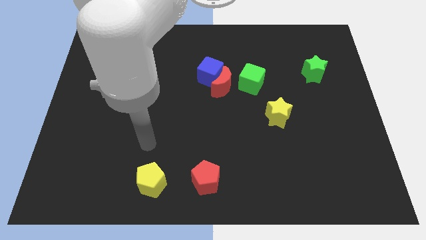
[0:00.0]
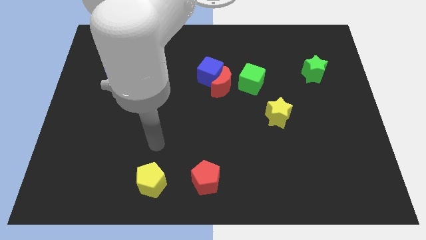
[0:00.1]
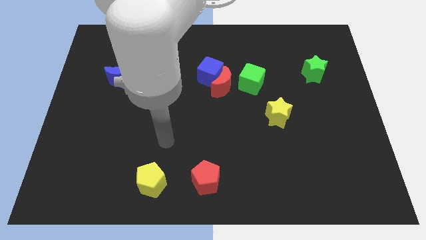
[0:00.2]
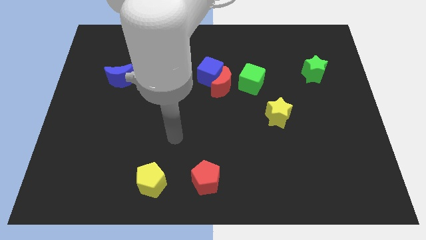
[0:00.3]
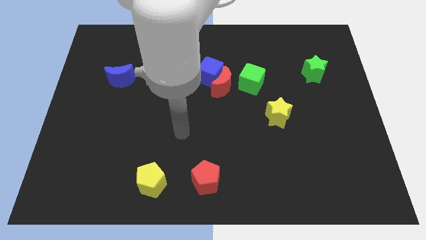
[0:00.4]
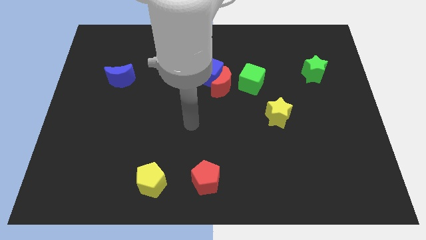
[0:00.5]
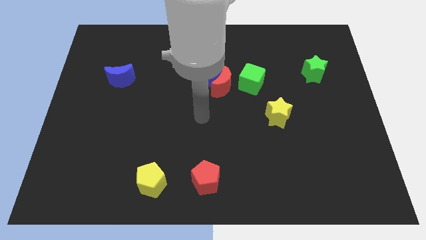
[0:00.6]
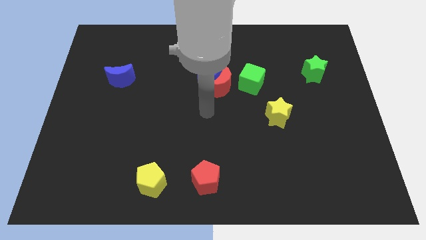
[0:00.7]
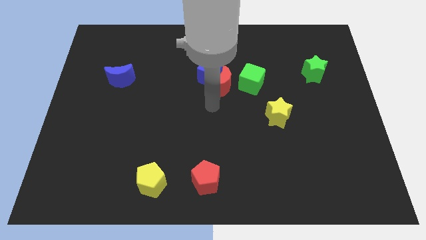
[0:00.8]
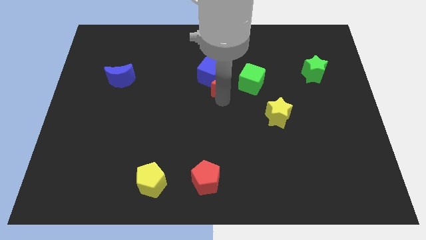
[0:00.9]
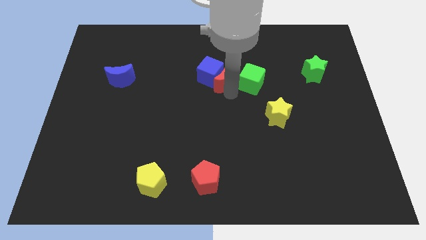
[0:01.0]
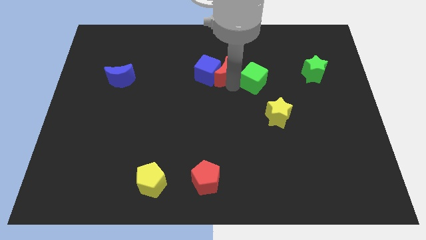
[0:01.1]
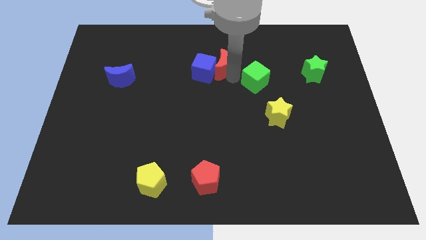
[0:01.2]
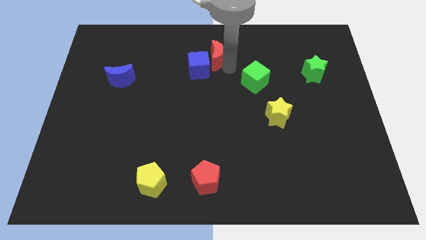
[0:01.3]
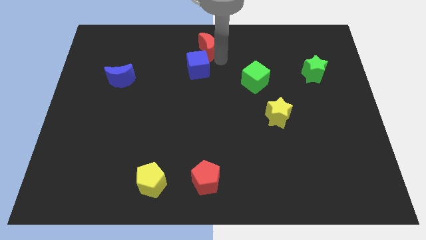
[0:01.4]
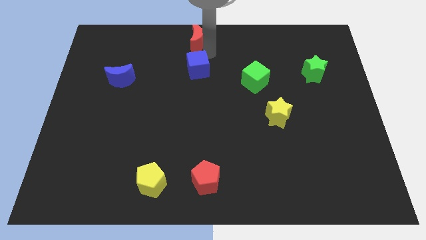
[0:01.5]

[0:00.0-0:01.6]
move the blue cube away from the red moon

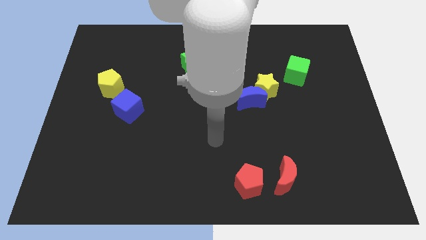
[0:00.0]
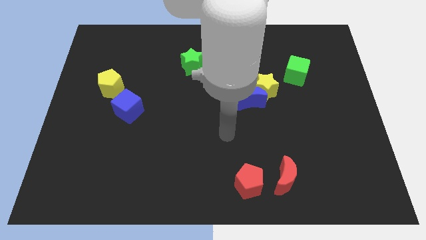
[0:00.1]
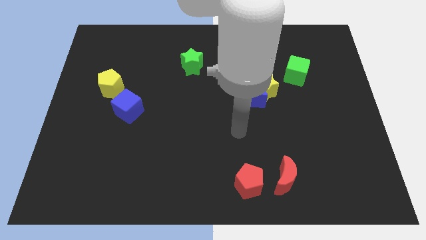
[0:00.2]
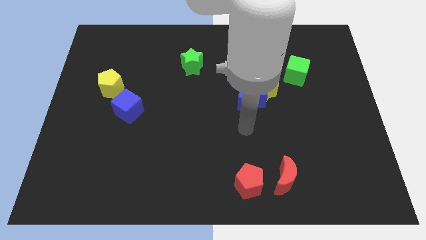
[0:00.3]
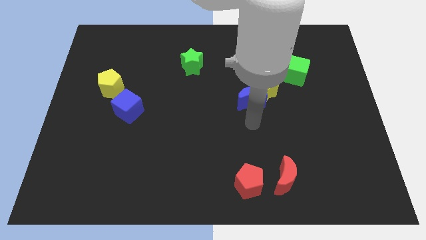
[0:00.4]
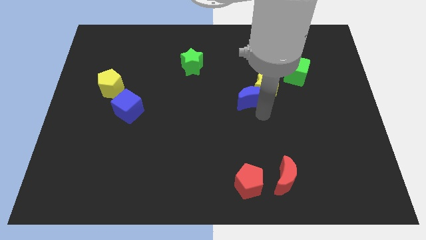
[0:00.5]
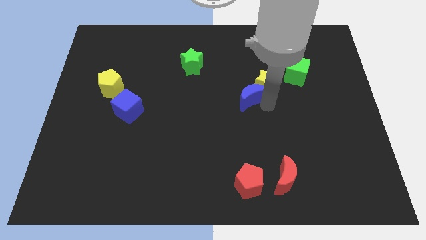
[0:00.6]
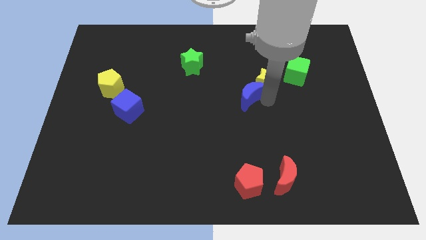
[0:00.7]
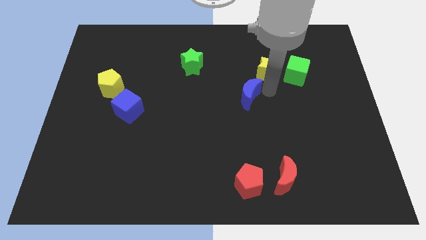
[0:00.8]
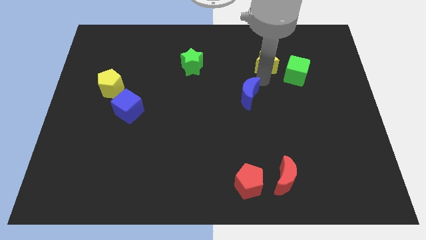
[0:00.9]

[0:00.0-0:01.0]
separate the blue moon from the yellow star

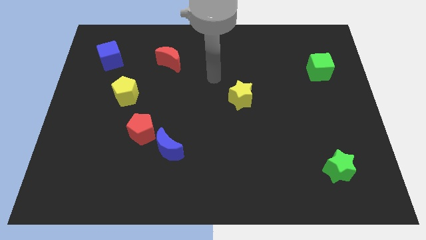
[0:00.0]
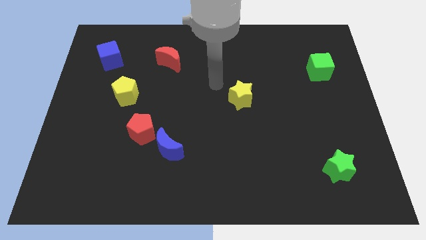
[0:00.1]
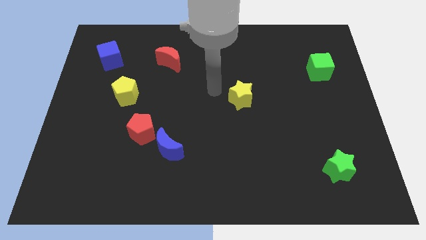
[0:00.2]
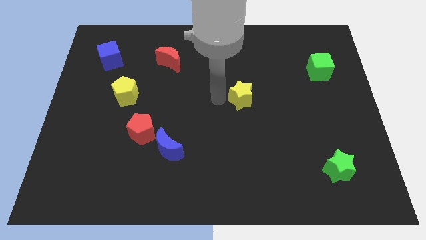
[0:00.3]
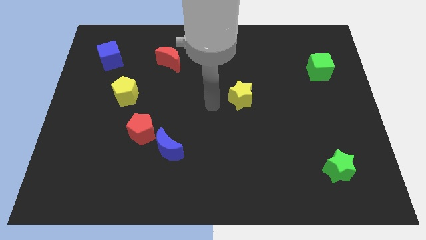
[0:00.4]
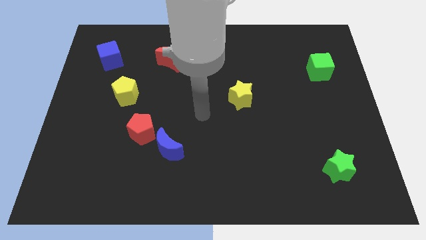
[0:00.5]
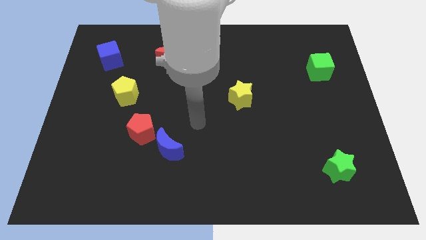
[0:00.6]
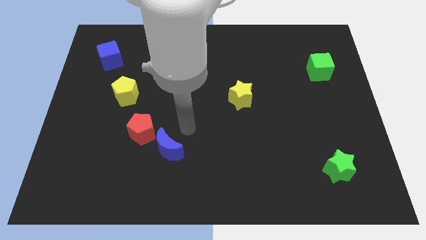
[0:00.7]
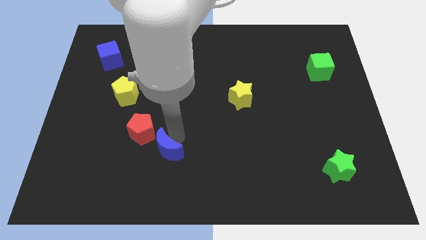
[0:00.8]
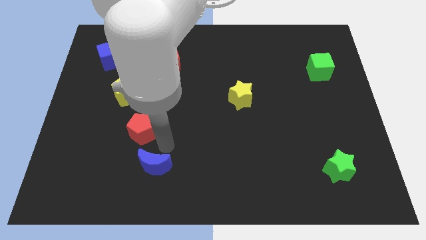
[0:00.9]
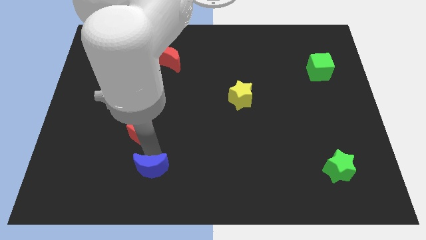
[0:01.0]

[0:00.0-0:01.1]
separate the red pentagon from the blue moon

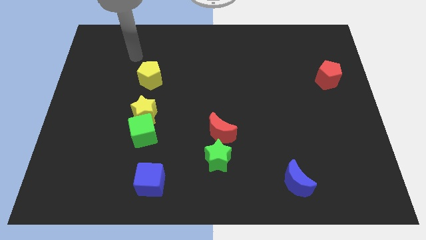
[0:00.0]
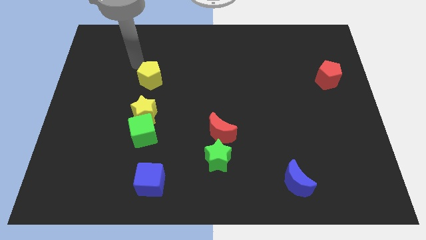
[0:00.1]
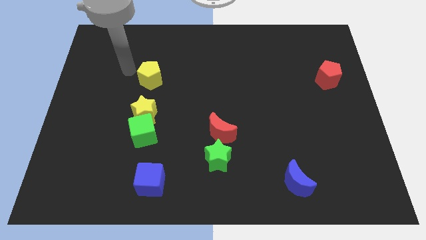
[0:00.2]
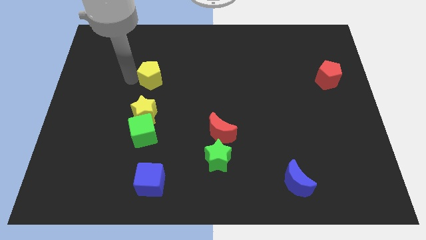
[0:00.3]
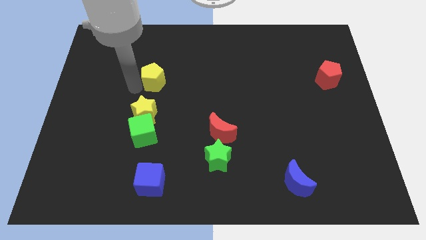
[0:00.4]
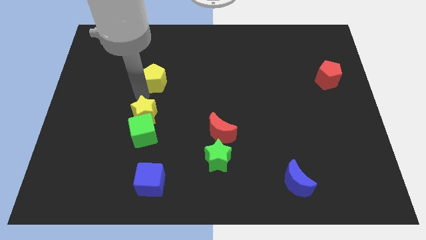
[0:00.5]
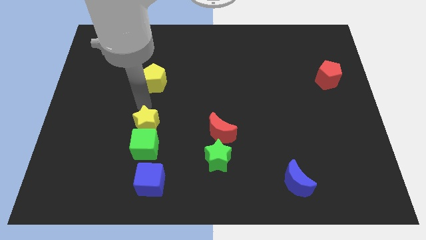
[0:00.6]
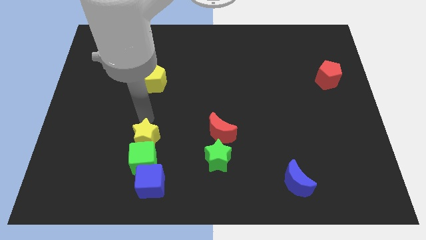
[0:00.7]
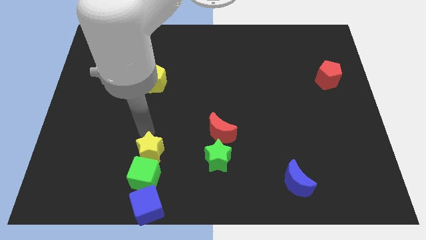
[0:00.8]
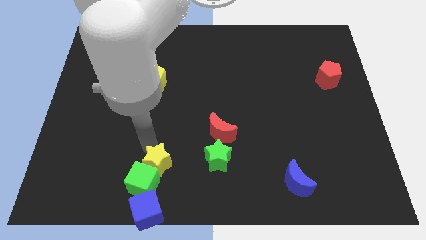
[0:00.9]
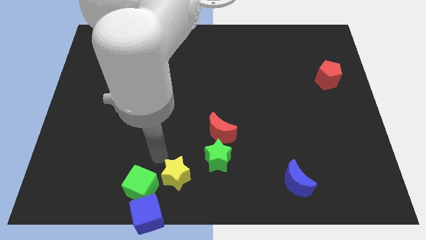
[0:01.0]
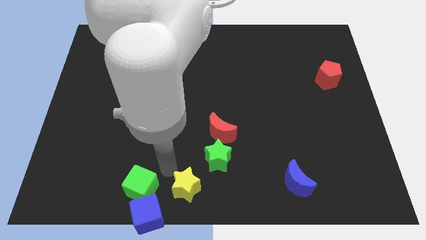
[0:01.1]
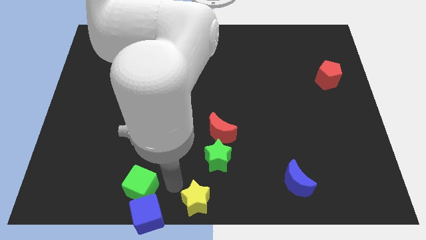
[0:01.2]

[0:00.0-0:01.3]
separate the green cube from the yellow star

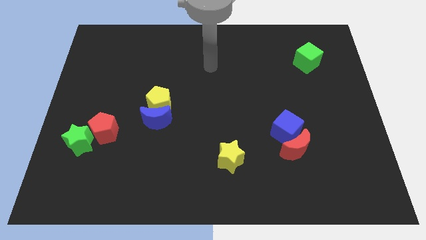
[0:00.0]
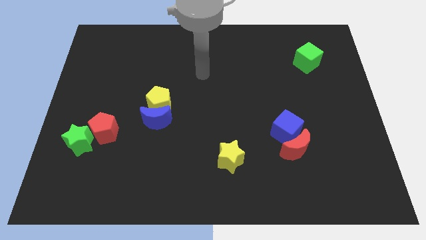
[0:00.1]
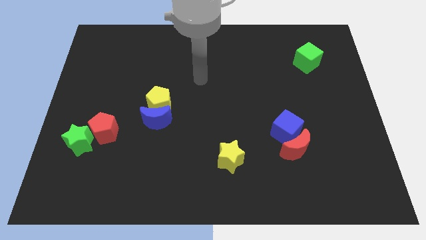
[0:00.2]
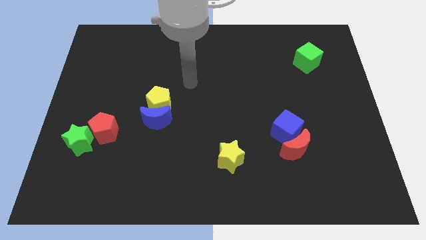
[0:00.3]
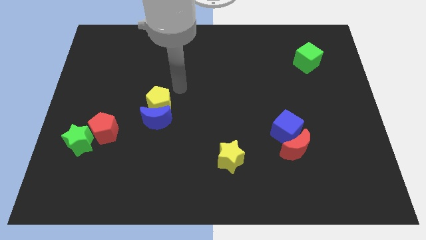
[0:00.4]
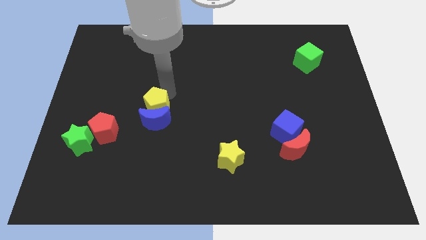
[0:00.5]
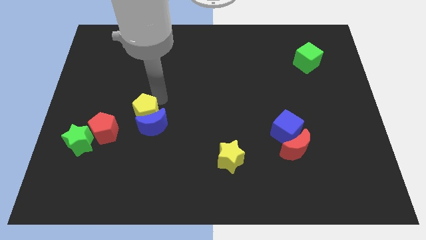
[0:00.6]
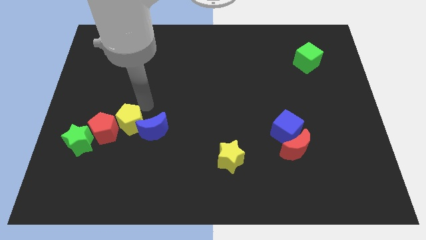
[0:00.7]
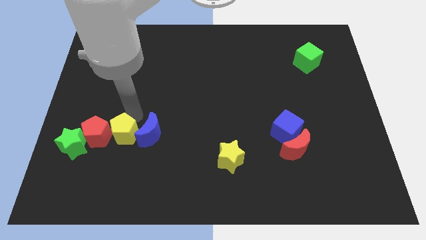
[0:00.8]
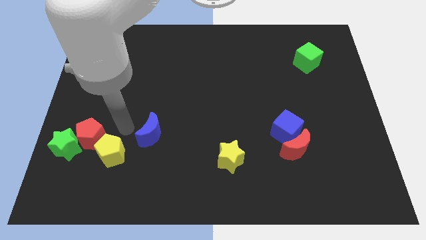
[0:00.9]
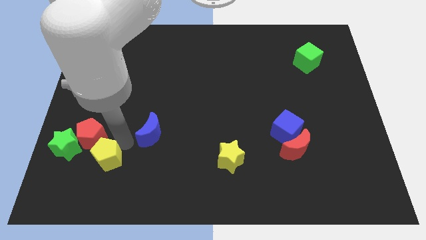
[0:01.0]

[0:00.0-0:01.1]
move the blue moon away from the yellow pentagon

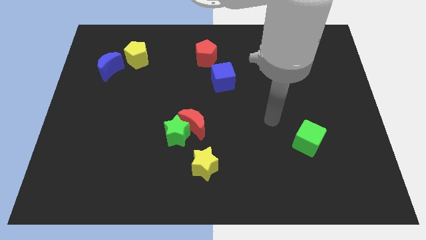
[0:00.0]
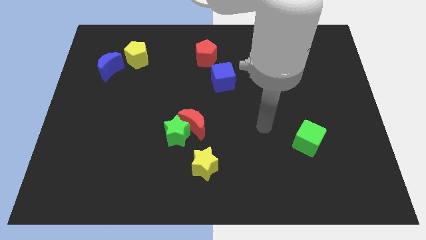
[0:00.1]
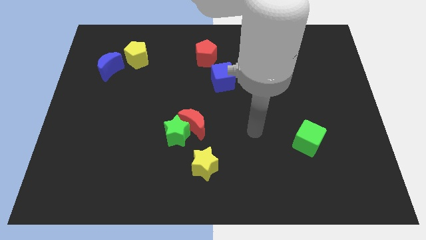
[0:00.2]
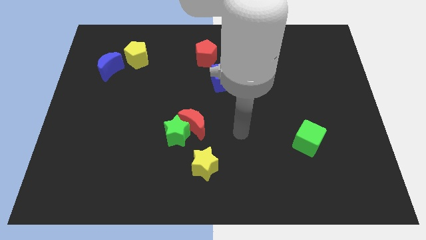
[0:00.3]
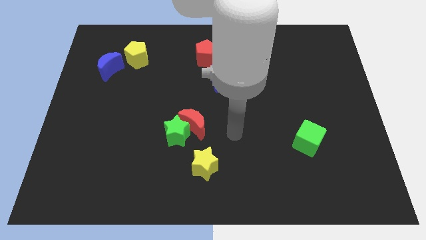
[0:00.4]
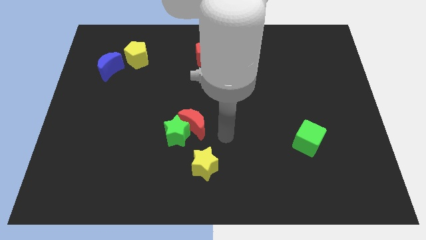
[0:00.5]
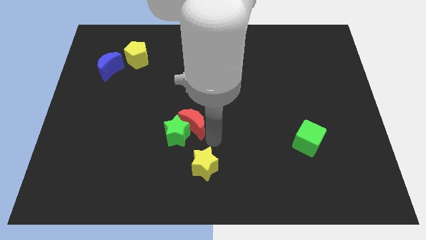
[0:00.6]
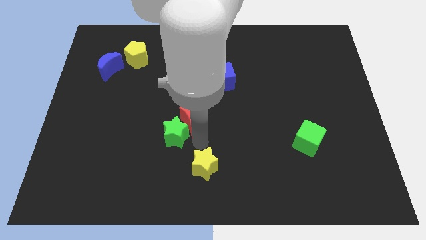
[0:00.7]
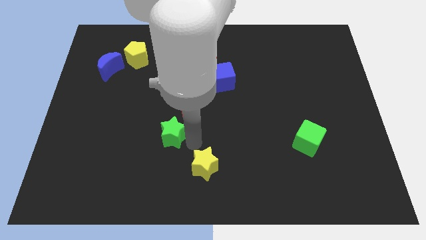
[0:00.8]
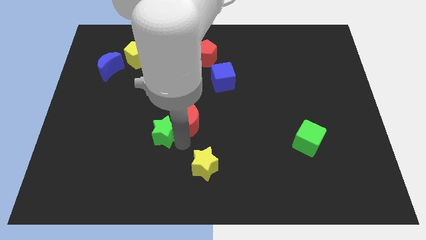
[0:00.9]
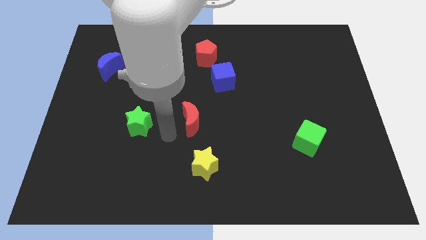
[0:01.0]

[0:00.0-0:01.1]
separate the red moon from the green star

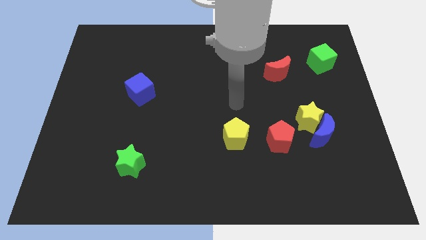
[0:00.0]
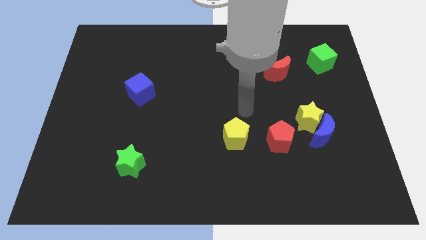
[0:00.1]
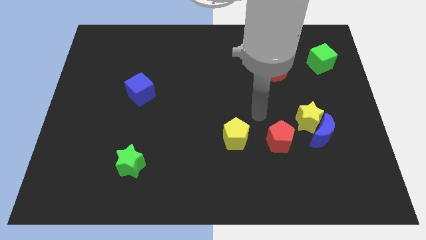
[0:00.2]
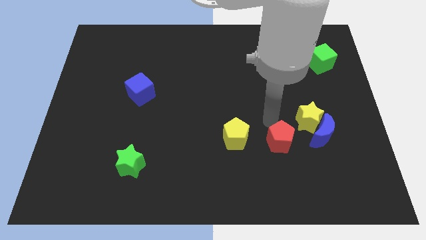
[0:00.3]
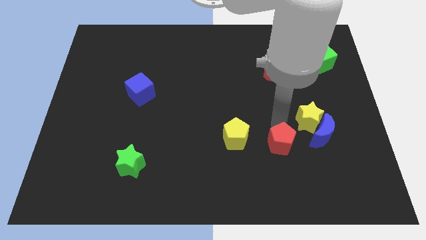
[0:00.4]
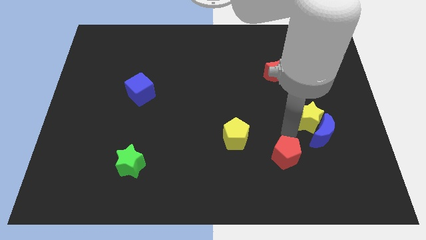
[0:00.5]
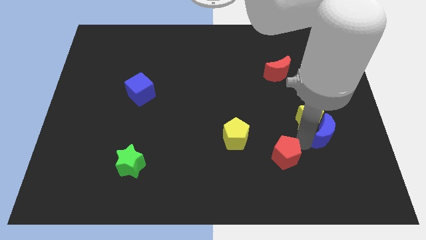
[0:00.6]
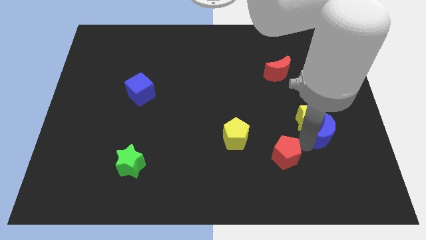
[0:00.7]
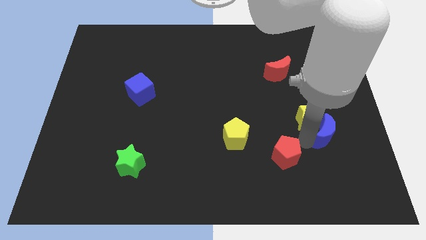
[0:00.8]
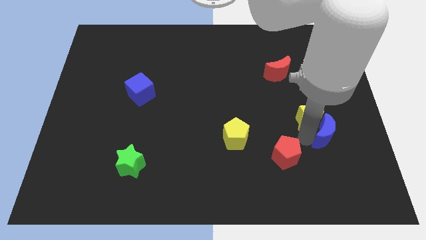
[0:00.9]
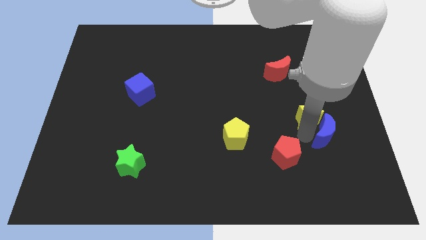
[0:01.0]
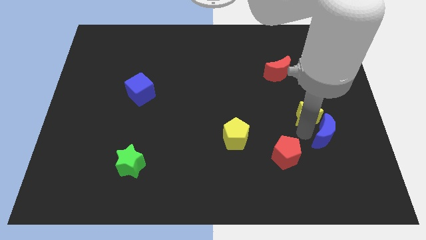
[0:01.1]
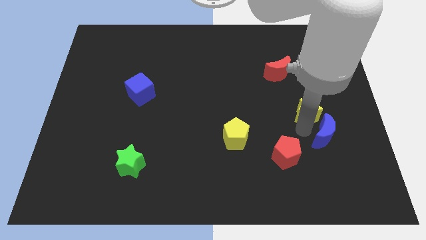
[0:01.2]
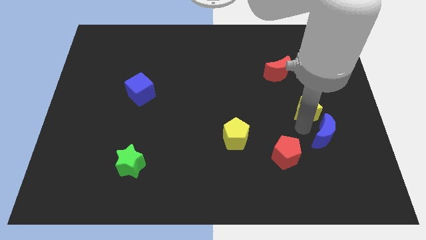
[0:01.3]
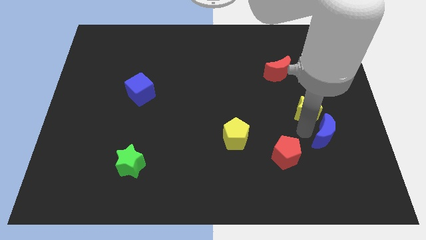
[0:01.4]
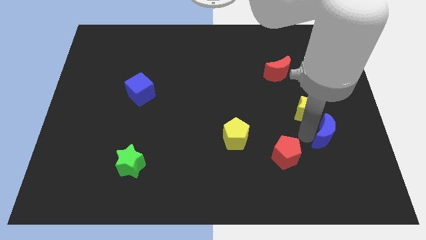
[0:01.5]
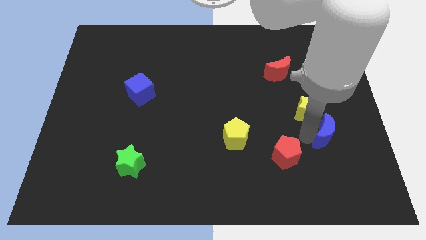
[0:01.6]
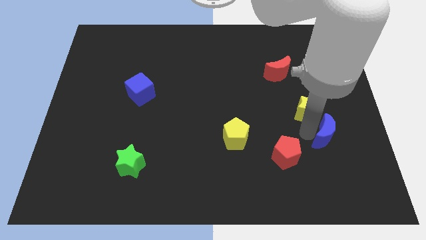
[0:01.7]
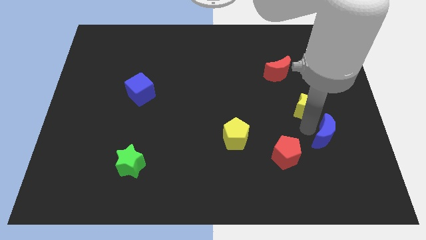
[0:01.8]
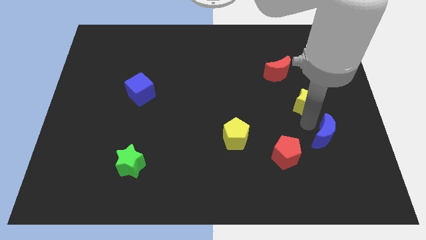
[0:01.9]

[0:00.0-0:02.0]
move the yellow star away from the blue moon and red pentagon

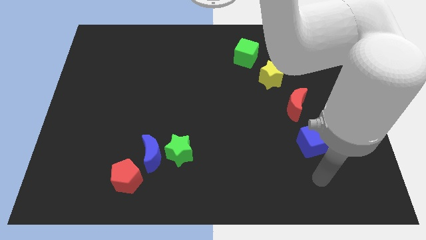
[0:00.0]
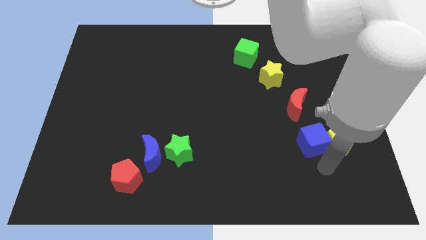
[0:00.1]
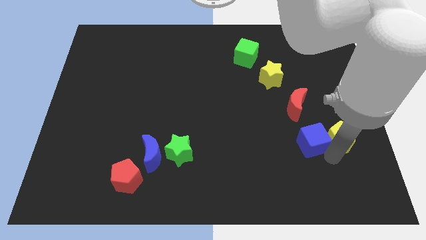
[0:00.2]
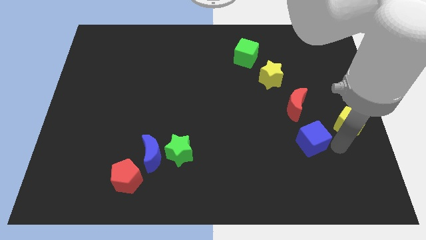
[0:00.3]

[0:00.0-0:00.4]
move the blue cube away from the yellow pentagon
